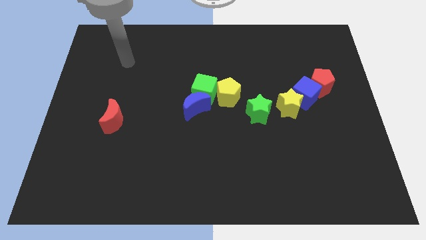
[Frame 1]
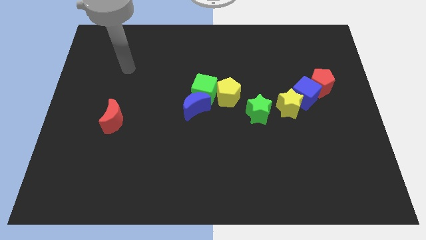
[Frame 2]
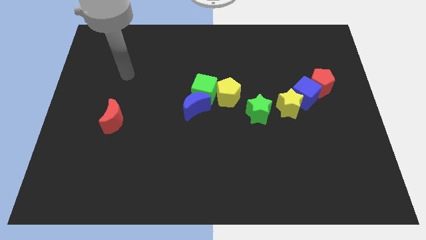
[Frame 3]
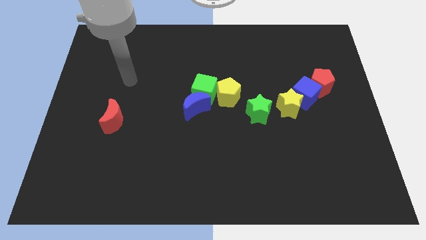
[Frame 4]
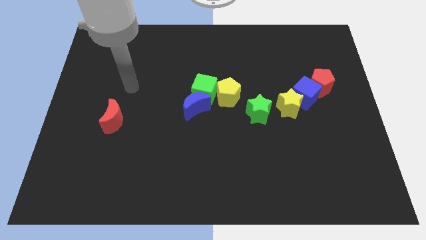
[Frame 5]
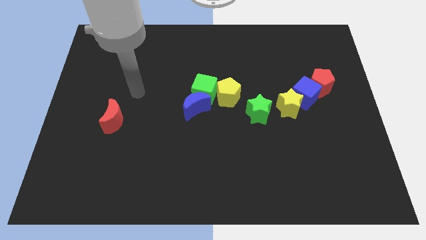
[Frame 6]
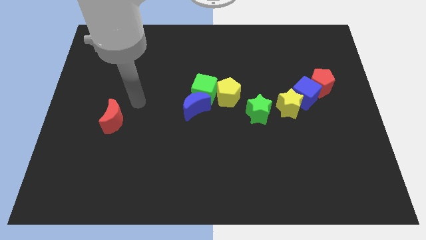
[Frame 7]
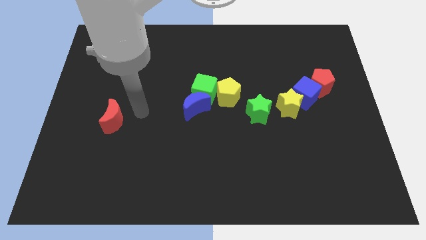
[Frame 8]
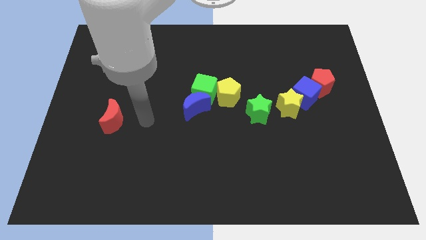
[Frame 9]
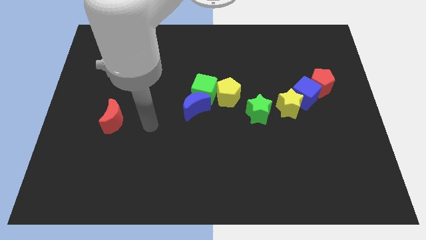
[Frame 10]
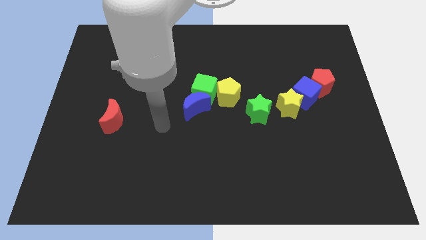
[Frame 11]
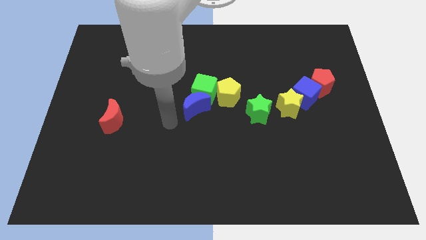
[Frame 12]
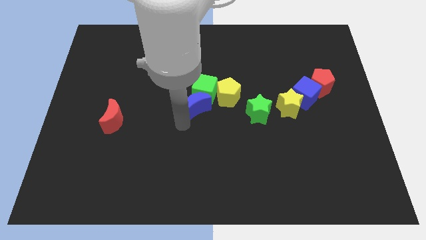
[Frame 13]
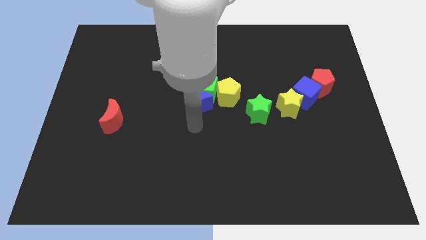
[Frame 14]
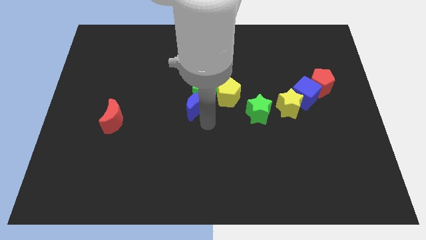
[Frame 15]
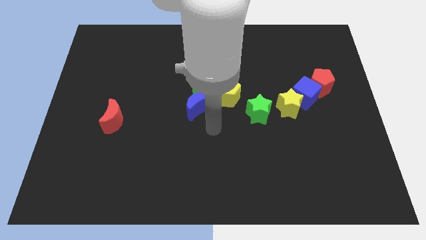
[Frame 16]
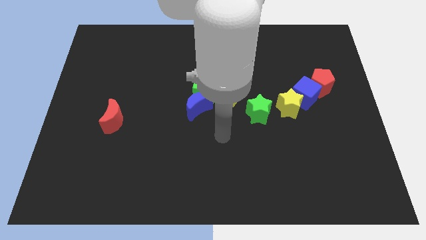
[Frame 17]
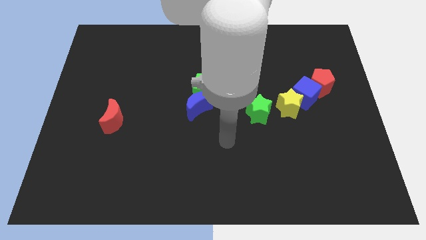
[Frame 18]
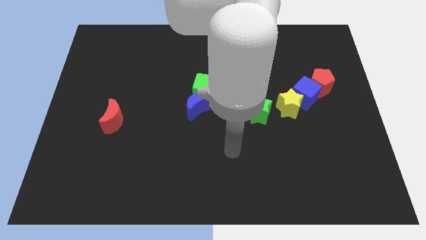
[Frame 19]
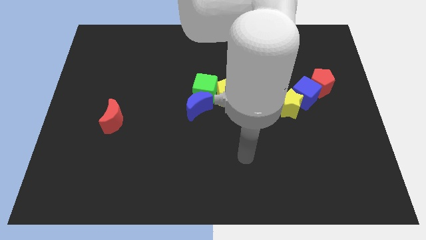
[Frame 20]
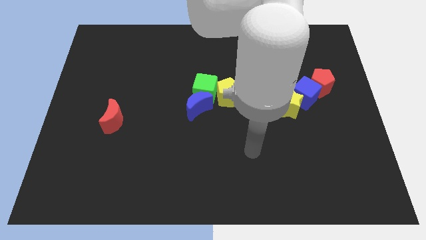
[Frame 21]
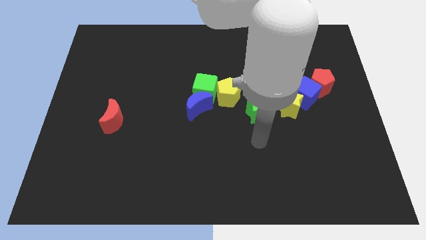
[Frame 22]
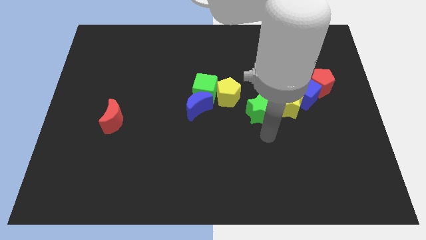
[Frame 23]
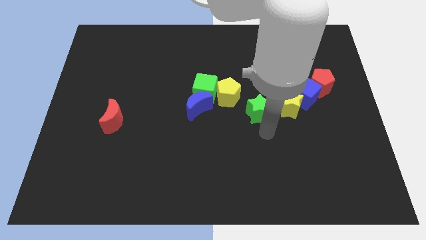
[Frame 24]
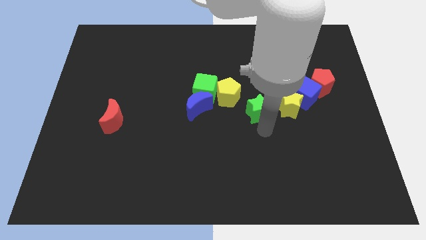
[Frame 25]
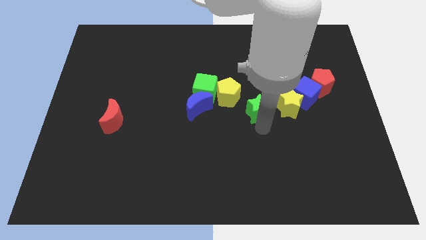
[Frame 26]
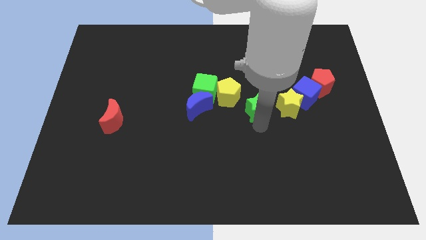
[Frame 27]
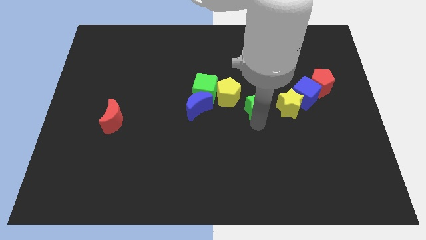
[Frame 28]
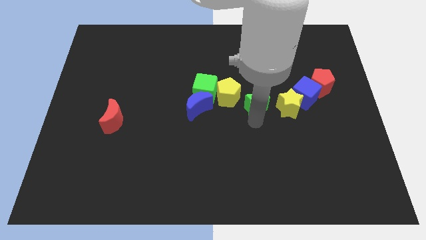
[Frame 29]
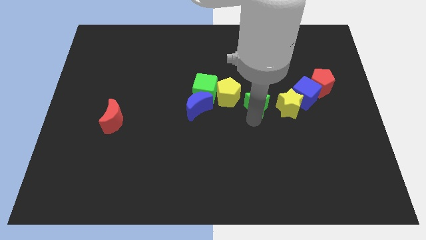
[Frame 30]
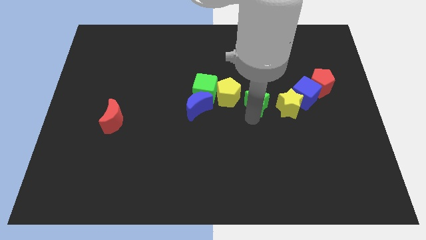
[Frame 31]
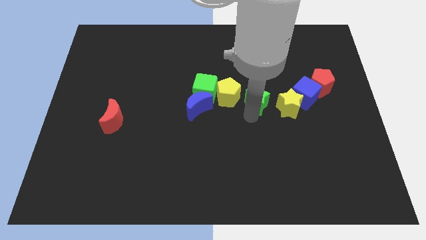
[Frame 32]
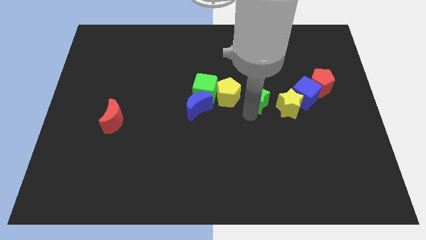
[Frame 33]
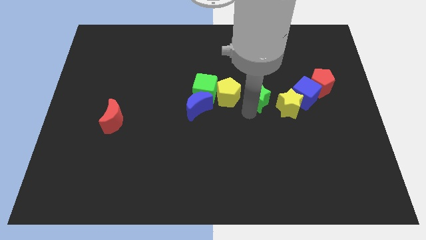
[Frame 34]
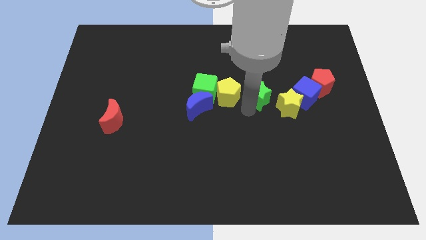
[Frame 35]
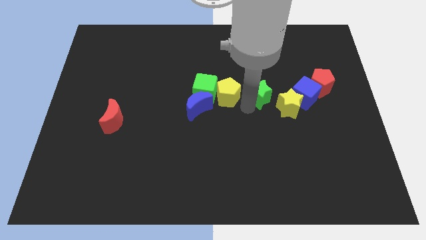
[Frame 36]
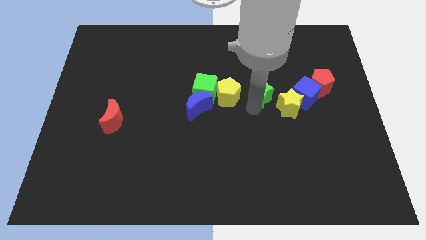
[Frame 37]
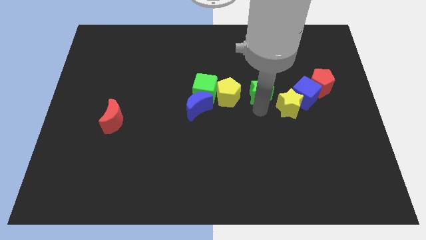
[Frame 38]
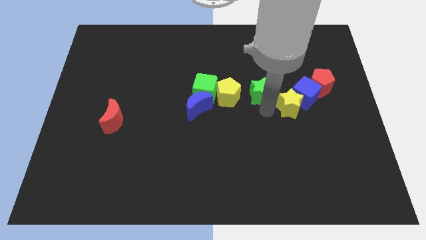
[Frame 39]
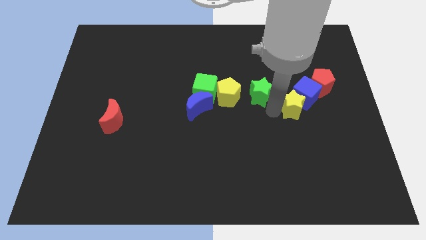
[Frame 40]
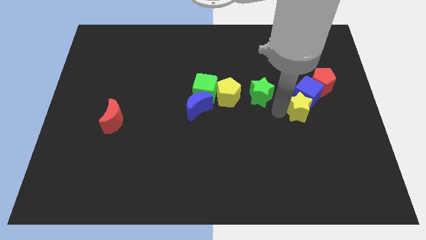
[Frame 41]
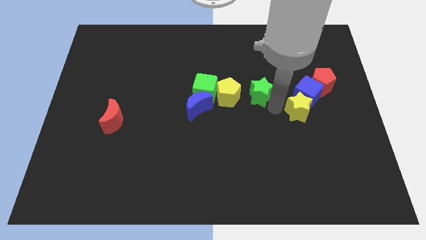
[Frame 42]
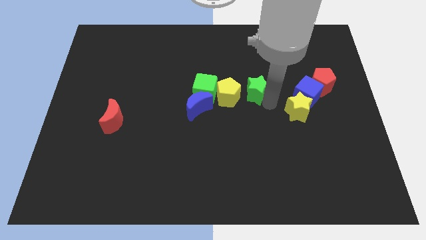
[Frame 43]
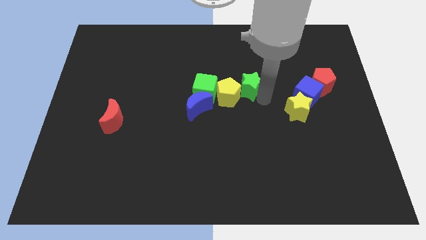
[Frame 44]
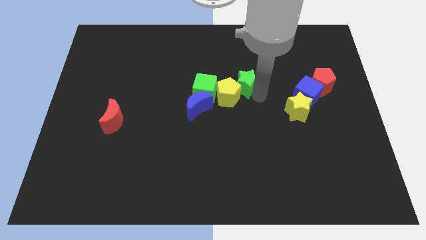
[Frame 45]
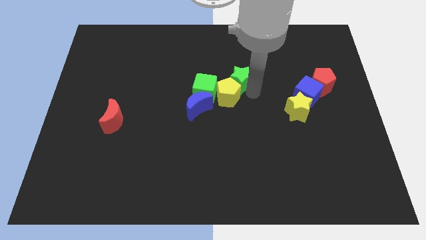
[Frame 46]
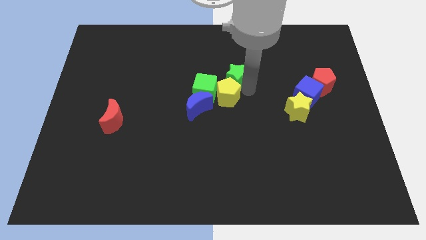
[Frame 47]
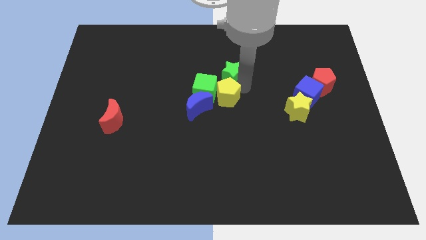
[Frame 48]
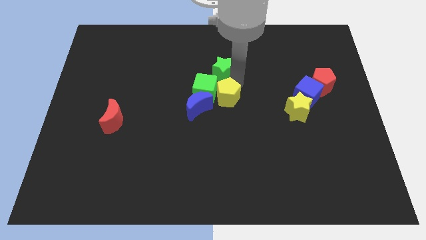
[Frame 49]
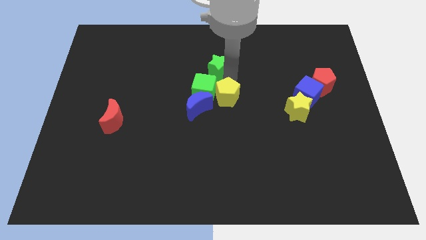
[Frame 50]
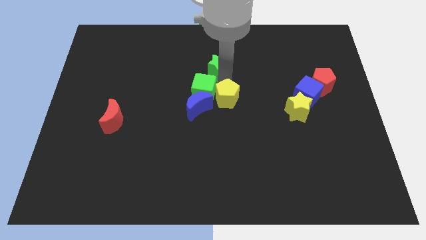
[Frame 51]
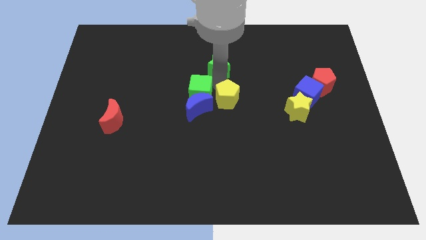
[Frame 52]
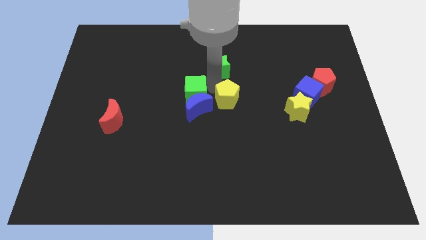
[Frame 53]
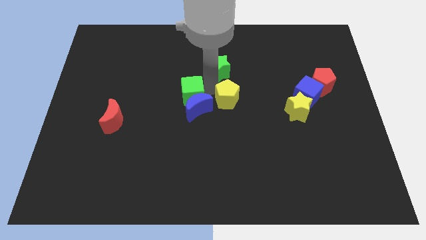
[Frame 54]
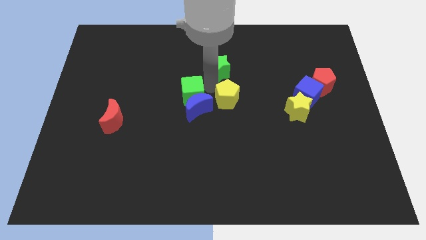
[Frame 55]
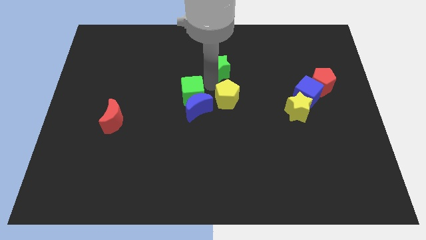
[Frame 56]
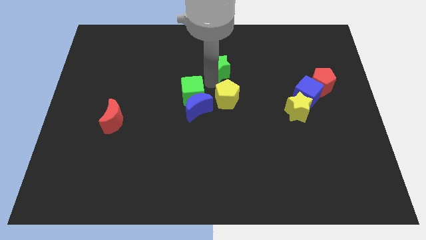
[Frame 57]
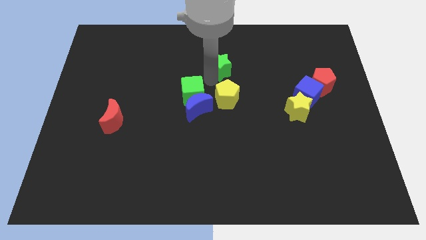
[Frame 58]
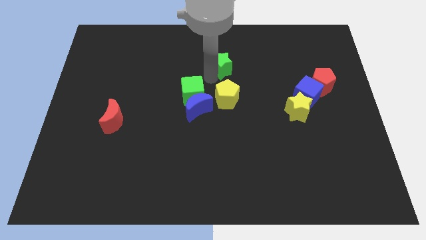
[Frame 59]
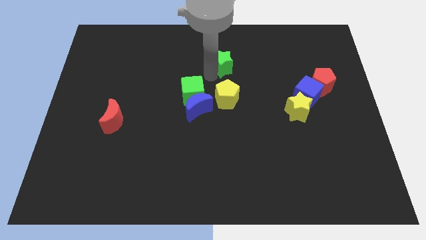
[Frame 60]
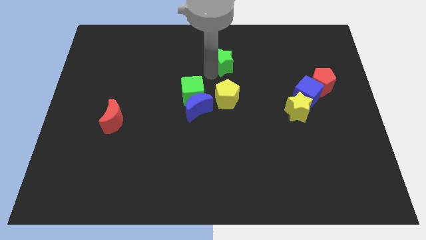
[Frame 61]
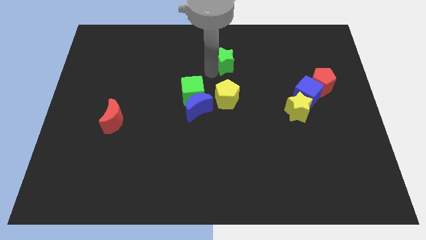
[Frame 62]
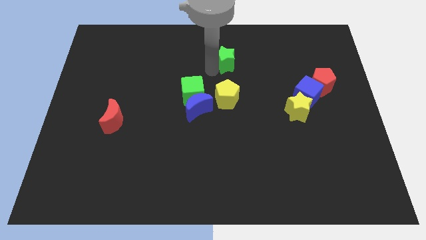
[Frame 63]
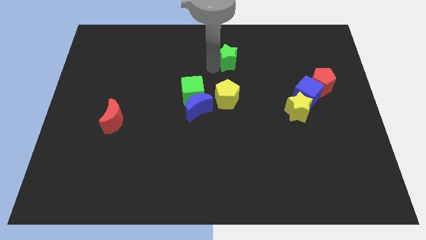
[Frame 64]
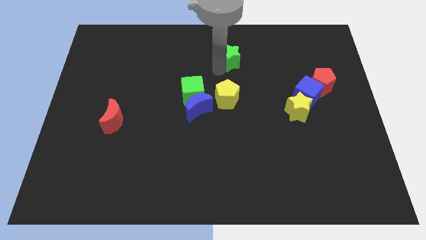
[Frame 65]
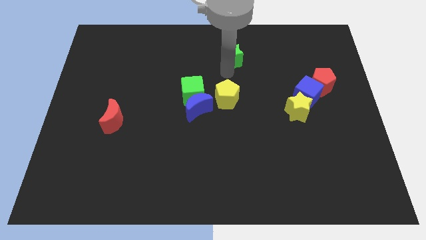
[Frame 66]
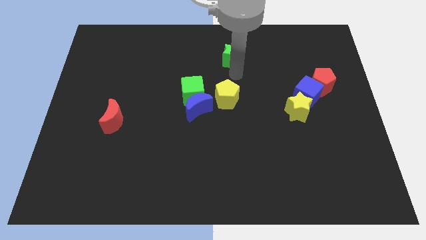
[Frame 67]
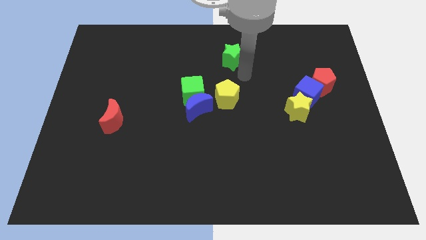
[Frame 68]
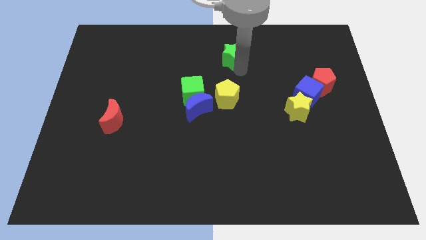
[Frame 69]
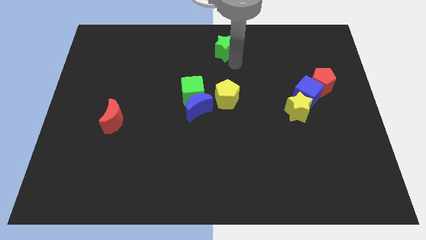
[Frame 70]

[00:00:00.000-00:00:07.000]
put the green star to the towards your base
